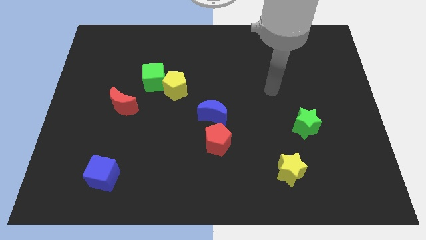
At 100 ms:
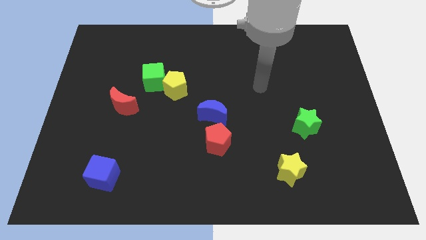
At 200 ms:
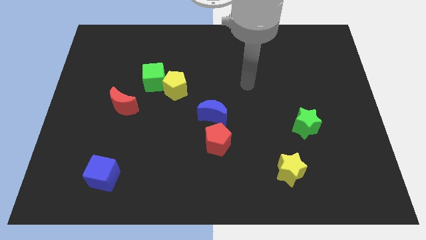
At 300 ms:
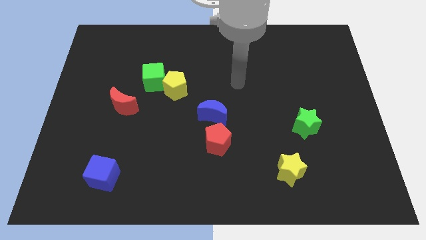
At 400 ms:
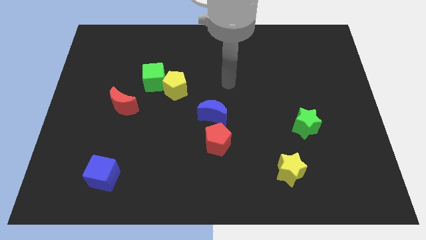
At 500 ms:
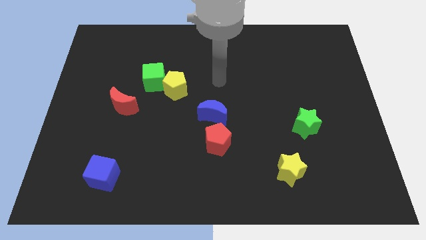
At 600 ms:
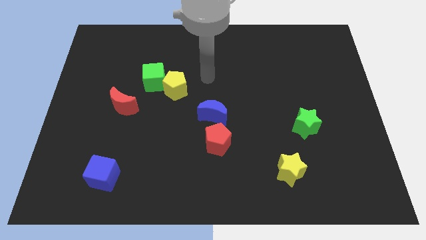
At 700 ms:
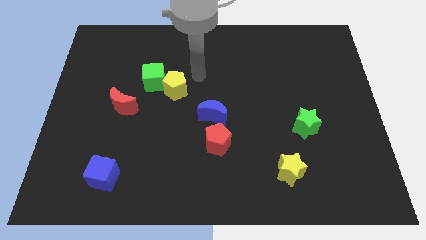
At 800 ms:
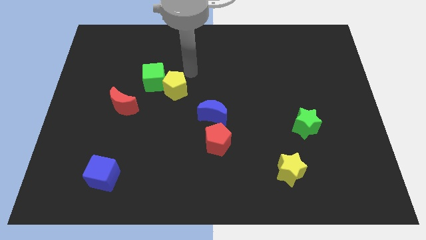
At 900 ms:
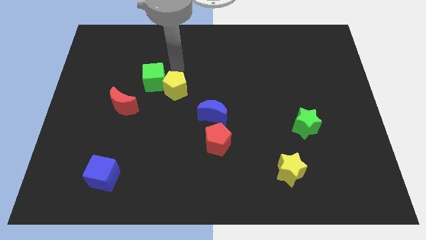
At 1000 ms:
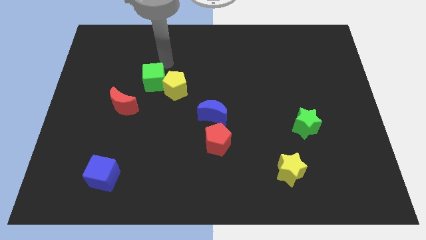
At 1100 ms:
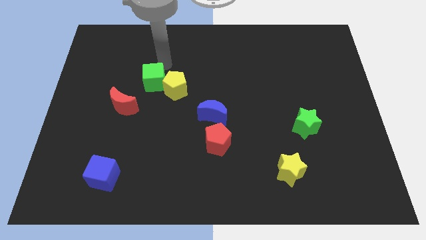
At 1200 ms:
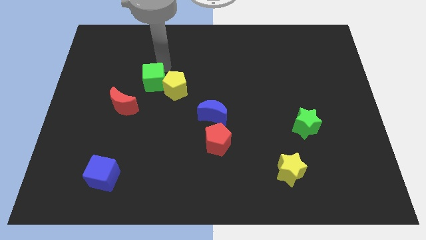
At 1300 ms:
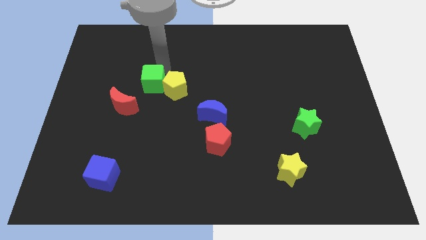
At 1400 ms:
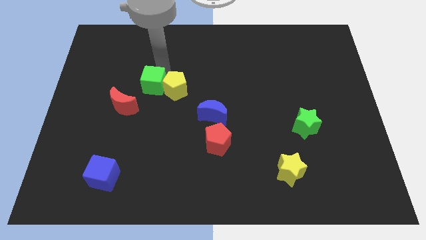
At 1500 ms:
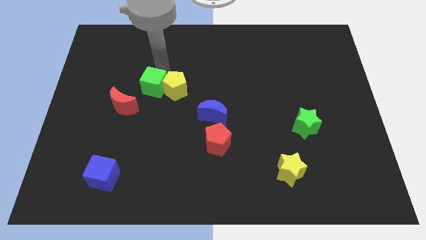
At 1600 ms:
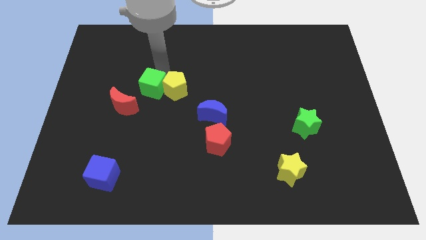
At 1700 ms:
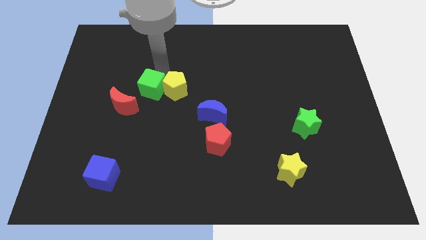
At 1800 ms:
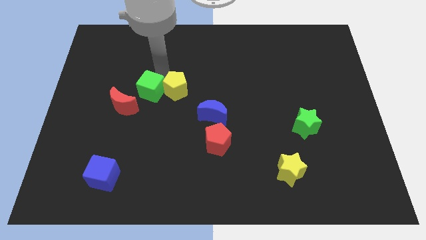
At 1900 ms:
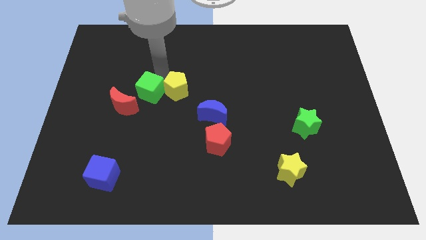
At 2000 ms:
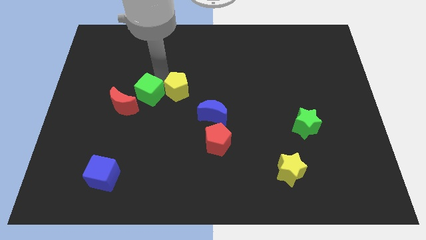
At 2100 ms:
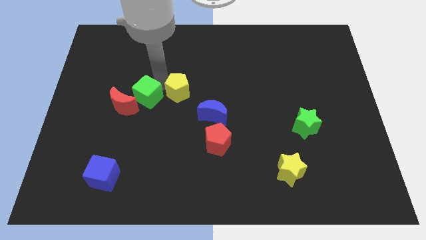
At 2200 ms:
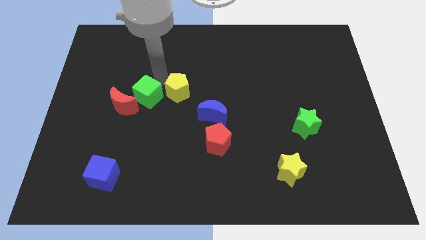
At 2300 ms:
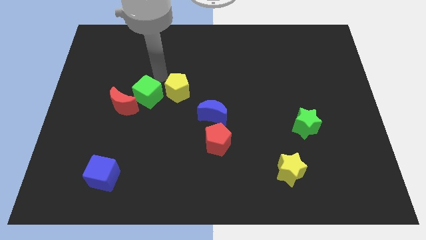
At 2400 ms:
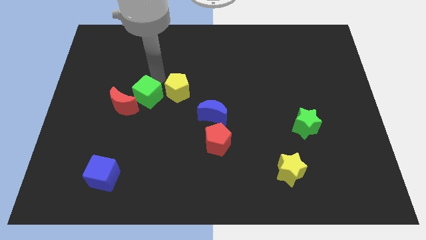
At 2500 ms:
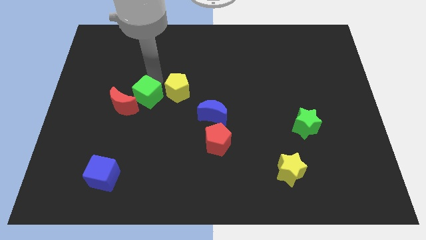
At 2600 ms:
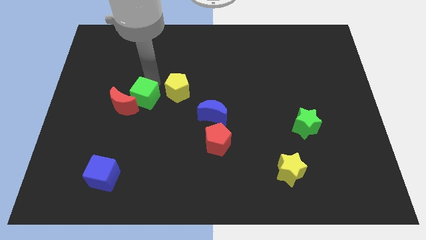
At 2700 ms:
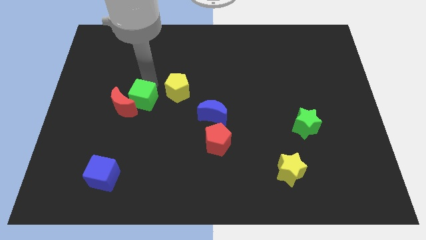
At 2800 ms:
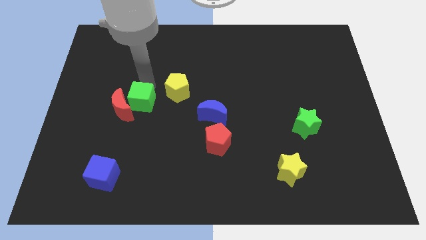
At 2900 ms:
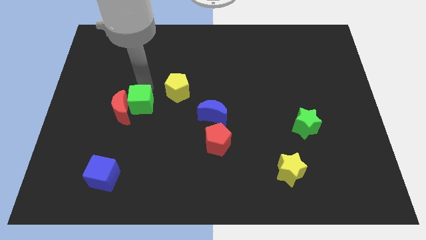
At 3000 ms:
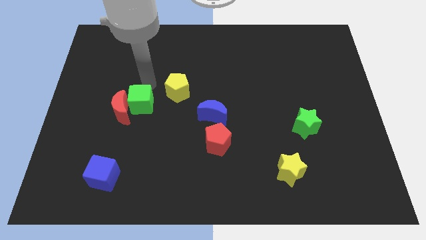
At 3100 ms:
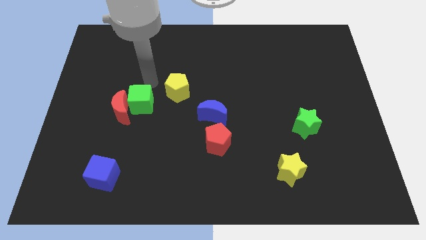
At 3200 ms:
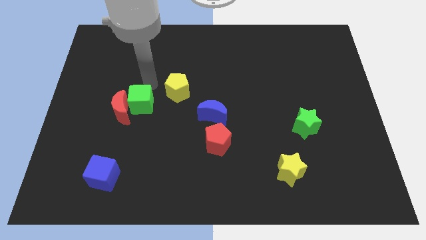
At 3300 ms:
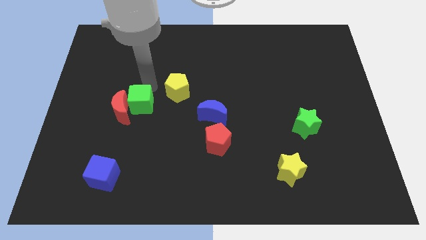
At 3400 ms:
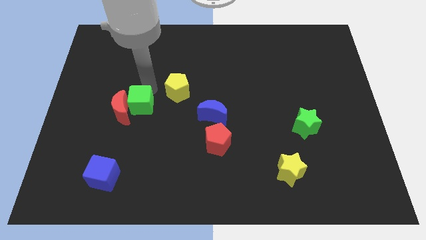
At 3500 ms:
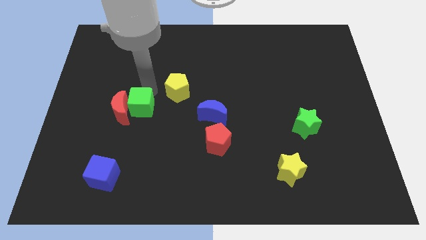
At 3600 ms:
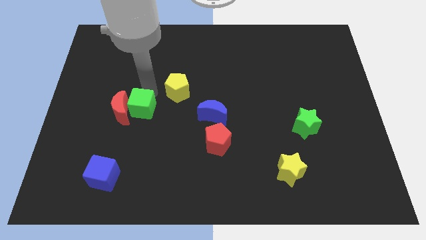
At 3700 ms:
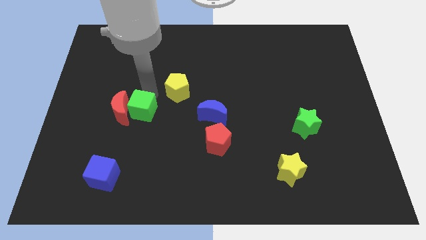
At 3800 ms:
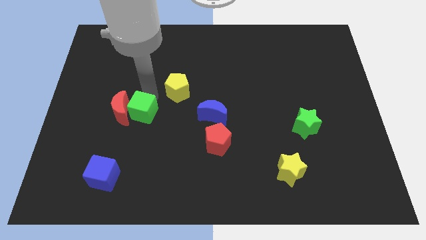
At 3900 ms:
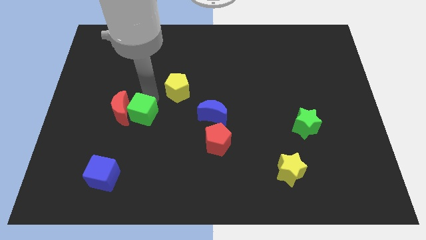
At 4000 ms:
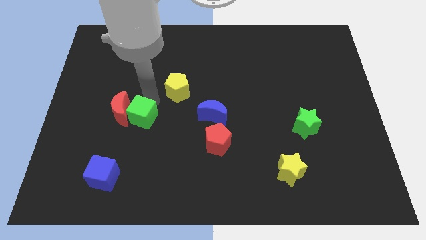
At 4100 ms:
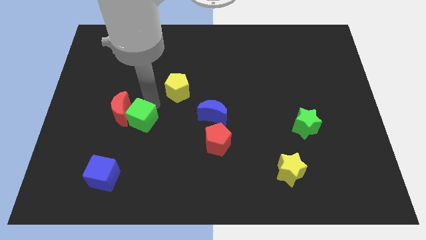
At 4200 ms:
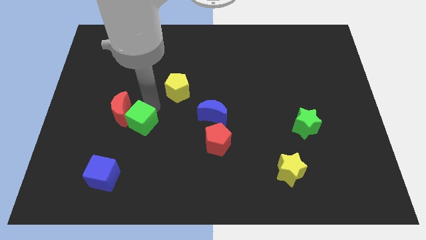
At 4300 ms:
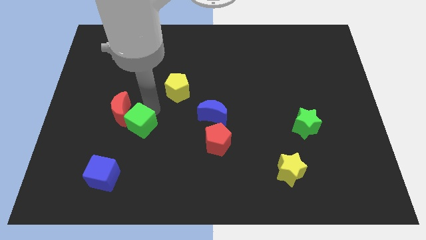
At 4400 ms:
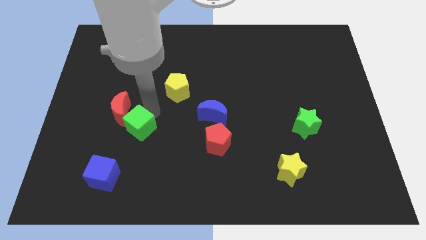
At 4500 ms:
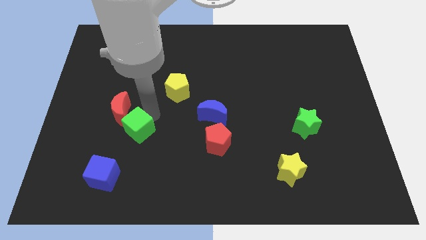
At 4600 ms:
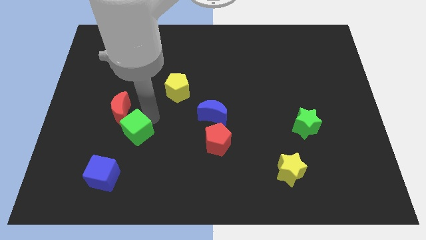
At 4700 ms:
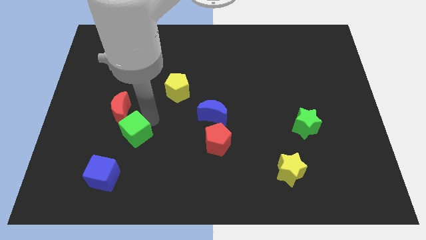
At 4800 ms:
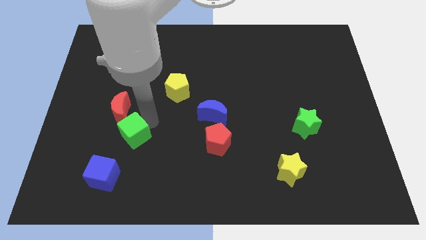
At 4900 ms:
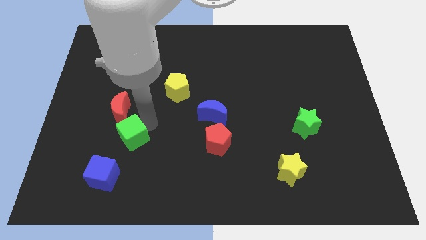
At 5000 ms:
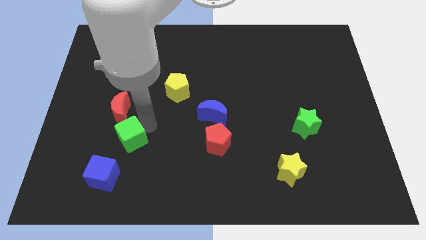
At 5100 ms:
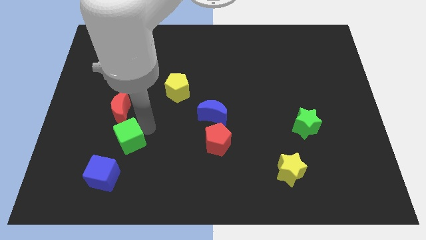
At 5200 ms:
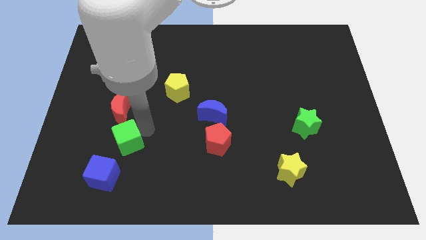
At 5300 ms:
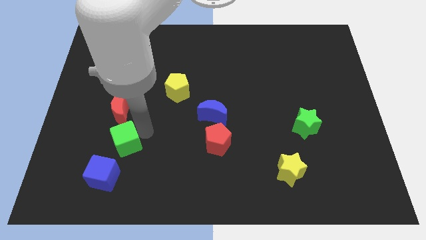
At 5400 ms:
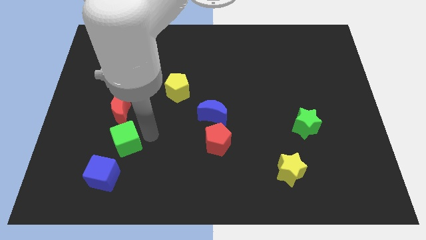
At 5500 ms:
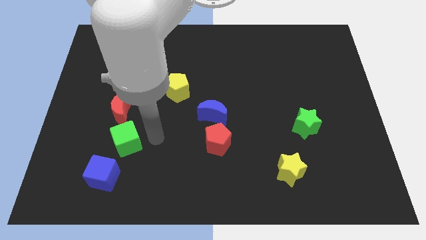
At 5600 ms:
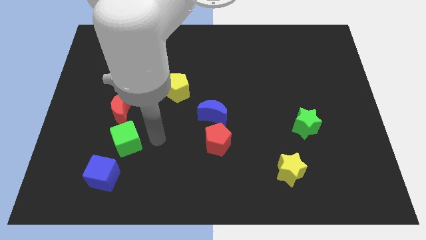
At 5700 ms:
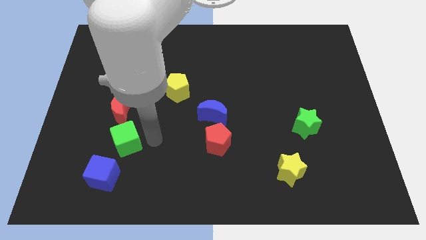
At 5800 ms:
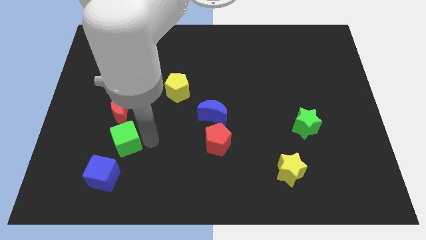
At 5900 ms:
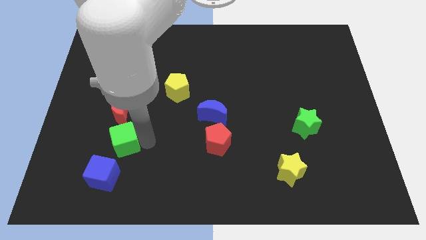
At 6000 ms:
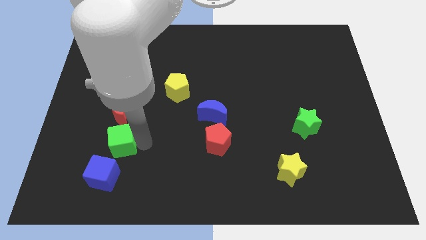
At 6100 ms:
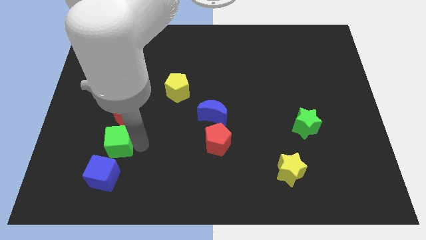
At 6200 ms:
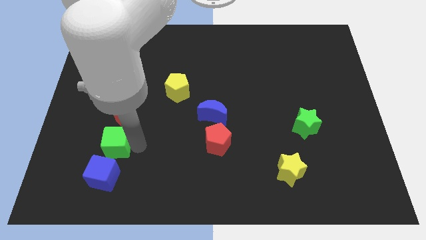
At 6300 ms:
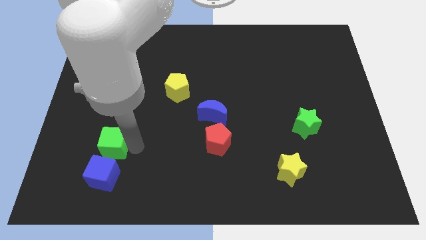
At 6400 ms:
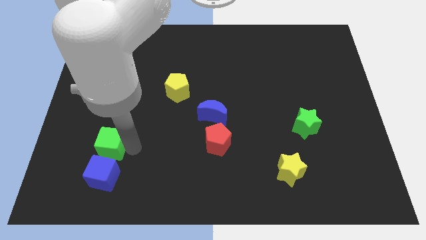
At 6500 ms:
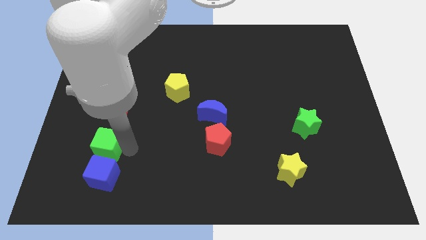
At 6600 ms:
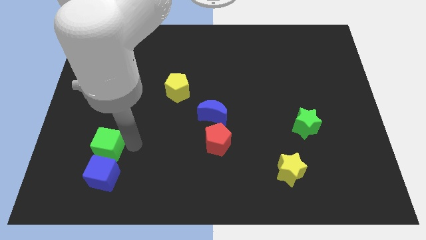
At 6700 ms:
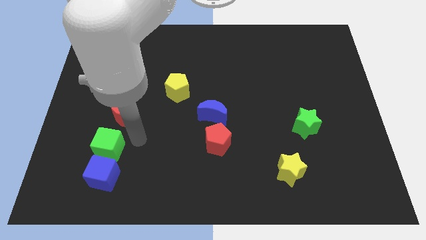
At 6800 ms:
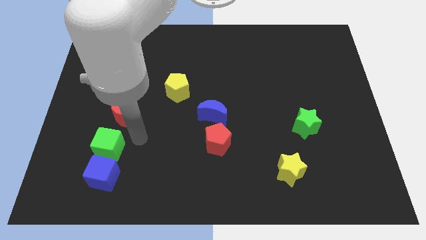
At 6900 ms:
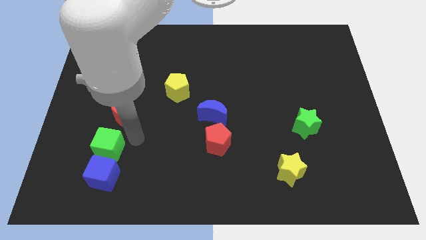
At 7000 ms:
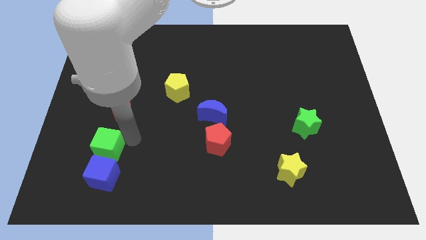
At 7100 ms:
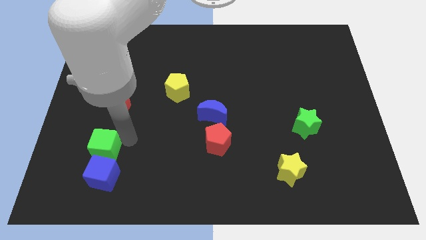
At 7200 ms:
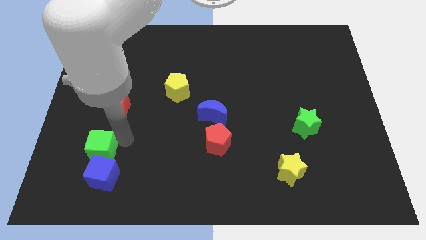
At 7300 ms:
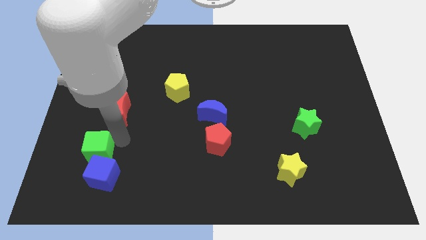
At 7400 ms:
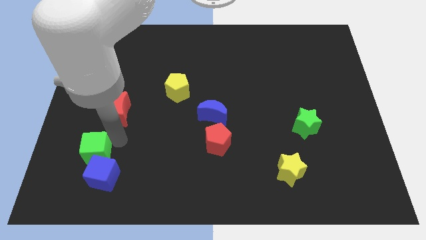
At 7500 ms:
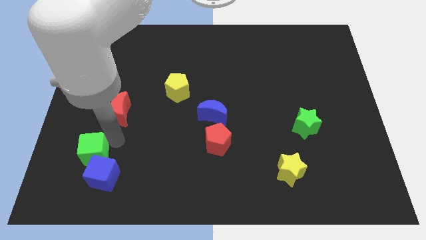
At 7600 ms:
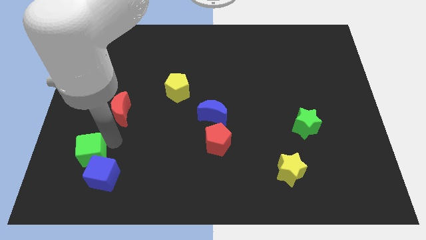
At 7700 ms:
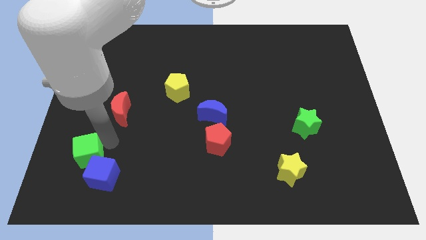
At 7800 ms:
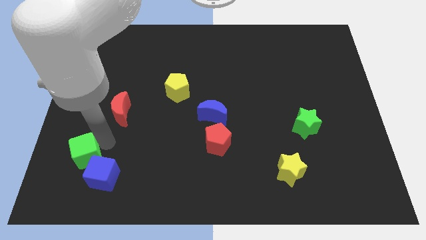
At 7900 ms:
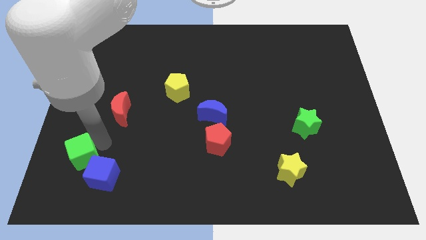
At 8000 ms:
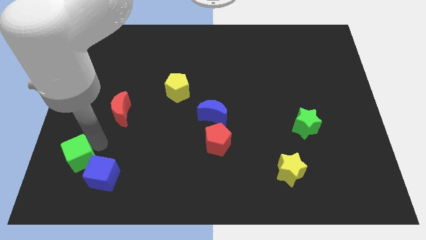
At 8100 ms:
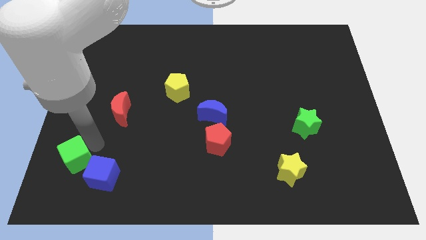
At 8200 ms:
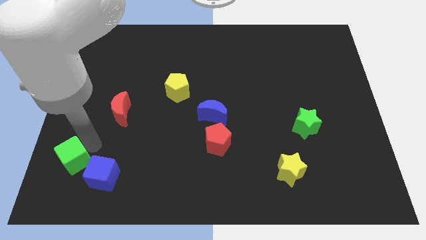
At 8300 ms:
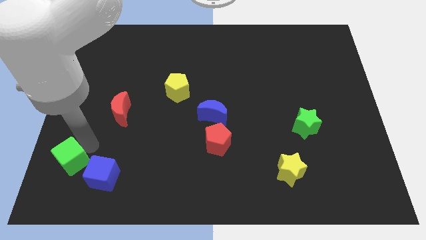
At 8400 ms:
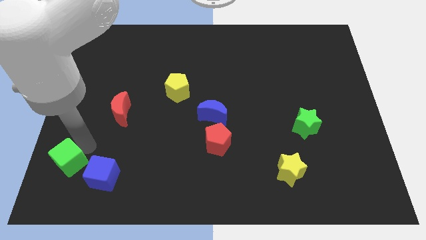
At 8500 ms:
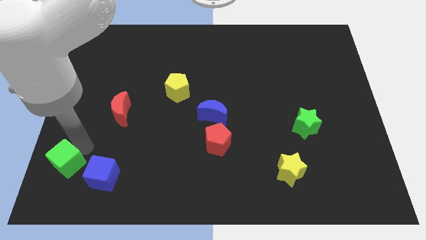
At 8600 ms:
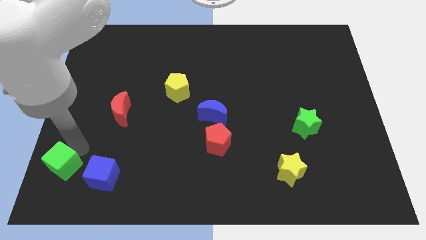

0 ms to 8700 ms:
slide the green cube to the bottom left of the board
